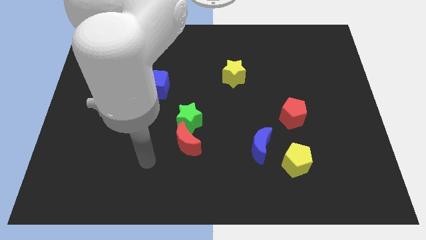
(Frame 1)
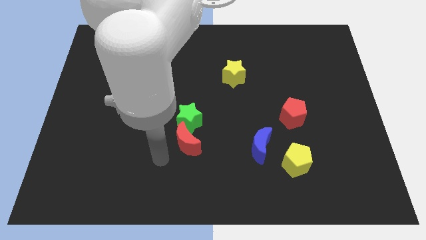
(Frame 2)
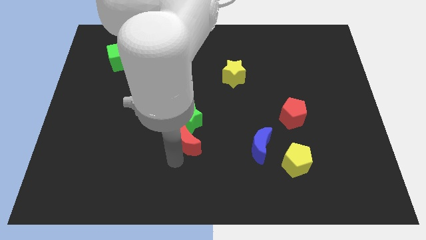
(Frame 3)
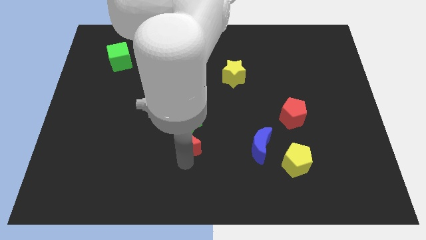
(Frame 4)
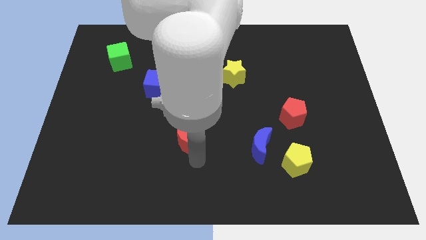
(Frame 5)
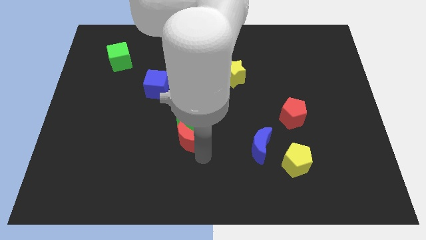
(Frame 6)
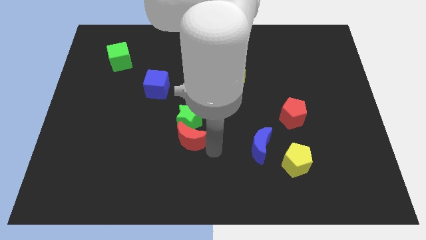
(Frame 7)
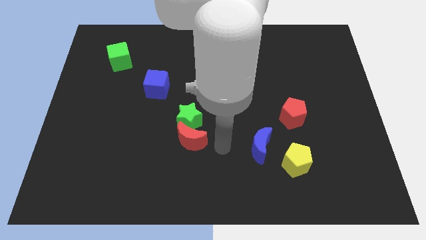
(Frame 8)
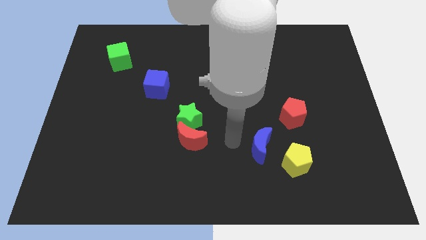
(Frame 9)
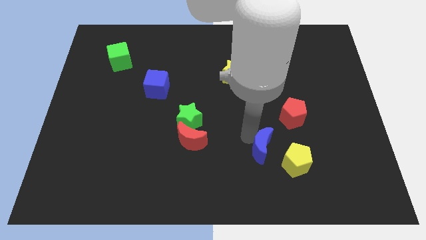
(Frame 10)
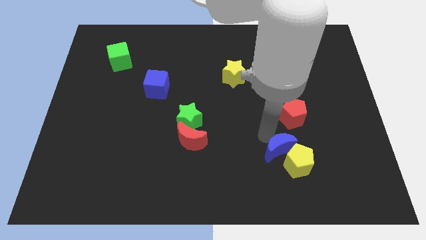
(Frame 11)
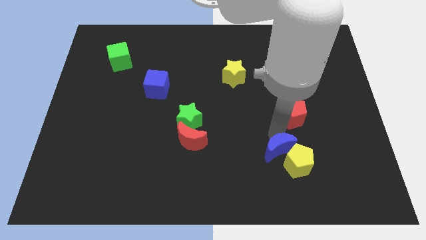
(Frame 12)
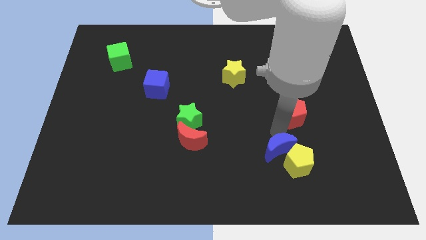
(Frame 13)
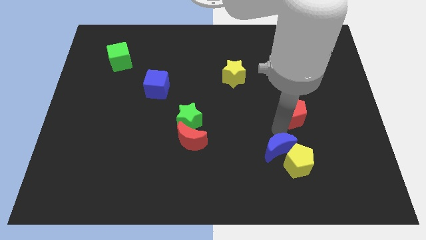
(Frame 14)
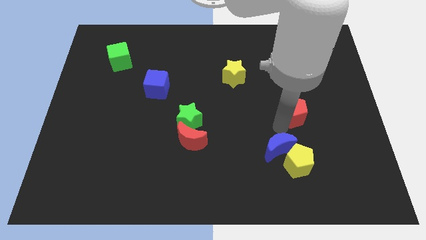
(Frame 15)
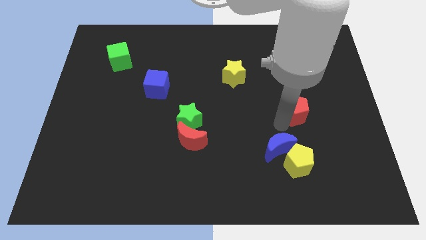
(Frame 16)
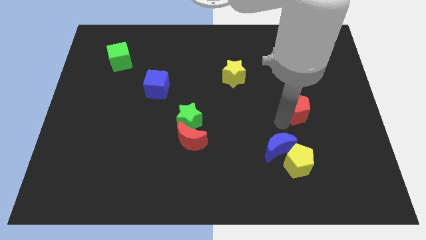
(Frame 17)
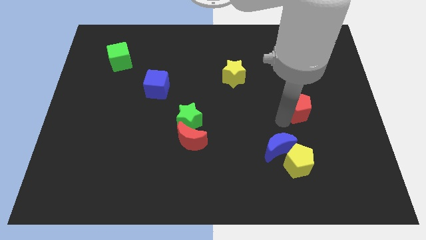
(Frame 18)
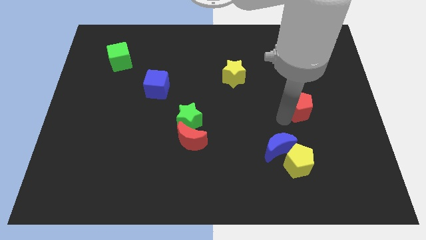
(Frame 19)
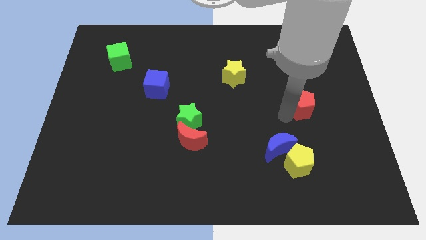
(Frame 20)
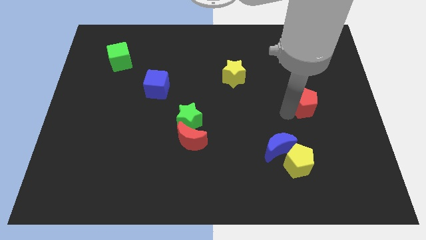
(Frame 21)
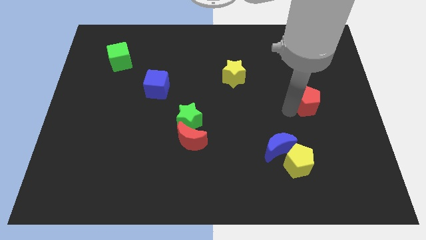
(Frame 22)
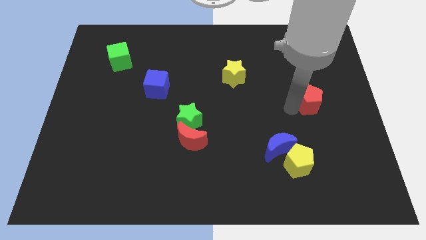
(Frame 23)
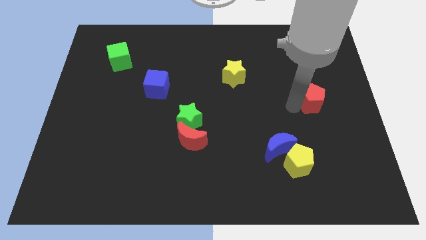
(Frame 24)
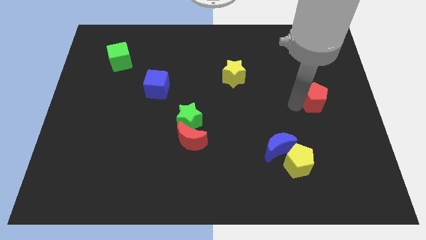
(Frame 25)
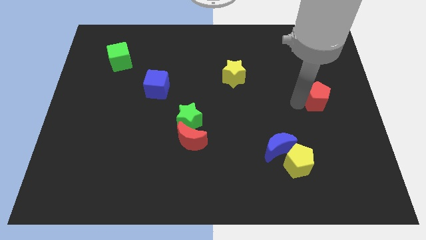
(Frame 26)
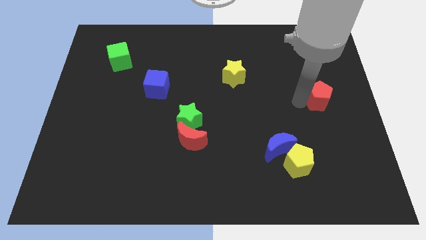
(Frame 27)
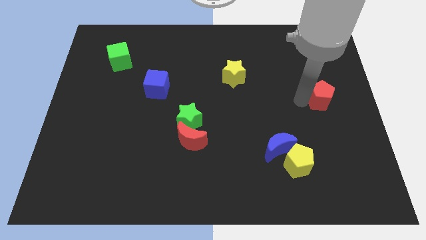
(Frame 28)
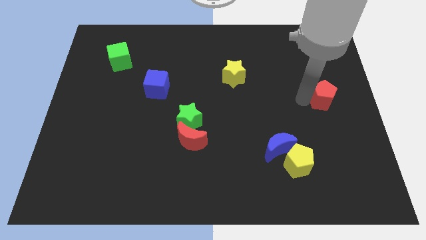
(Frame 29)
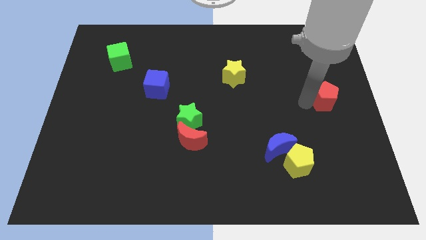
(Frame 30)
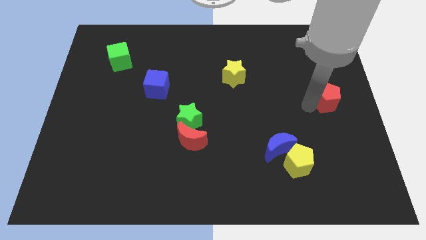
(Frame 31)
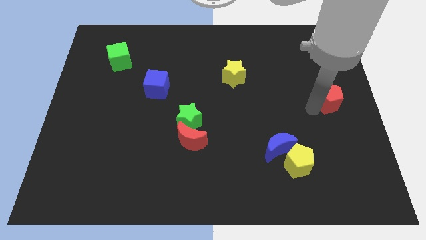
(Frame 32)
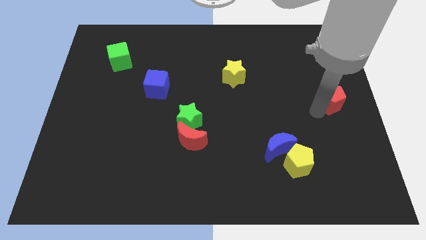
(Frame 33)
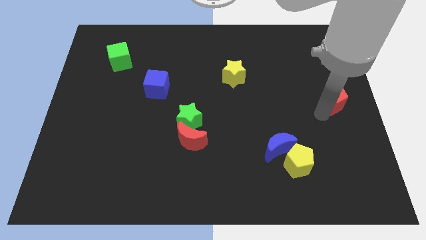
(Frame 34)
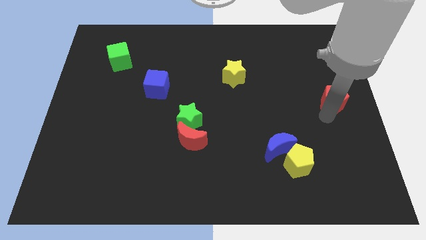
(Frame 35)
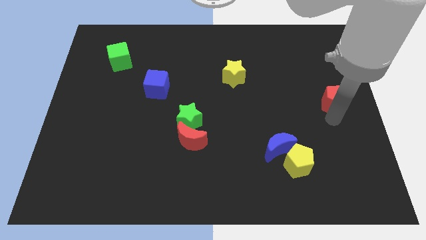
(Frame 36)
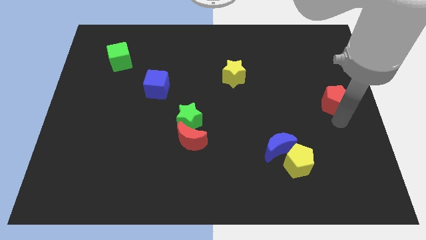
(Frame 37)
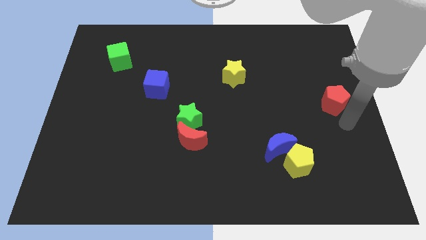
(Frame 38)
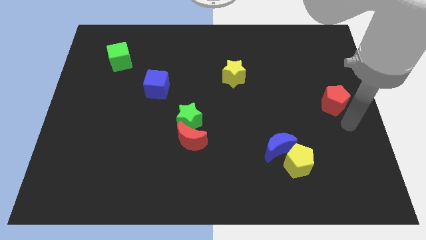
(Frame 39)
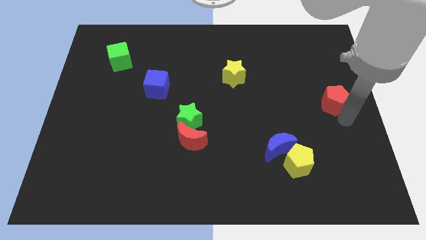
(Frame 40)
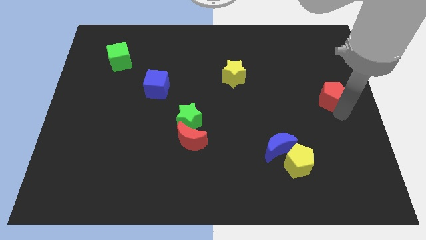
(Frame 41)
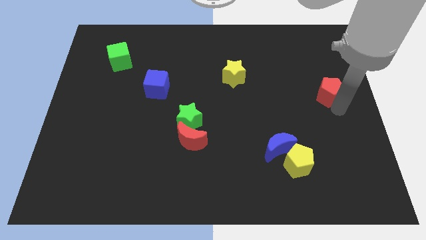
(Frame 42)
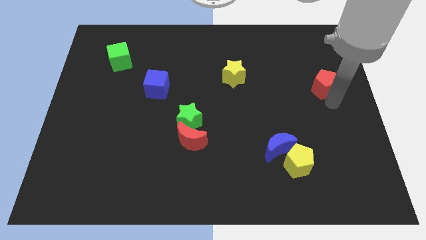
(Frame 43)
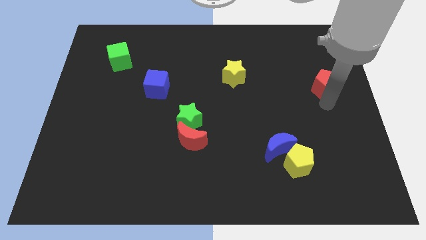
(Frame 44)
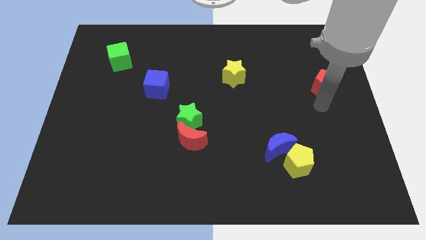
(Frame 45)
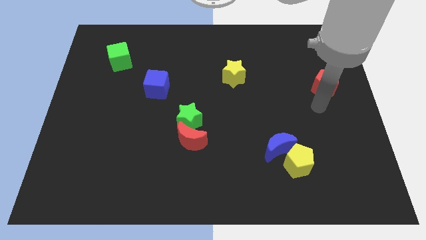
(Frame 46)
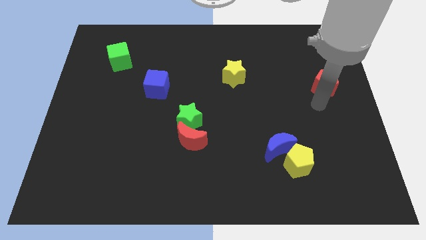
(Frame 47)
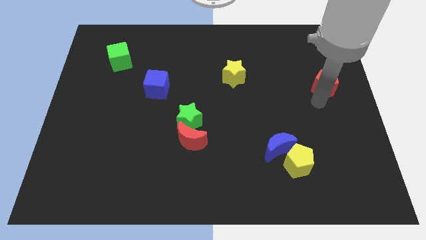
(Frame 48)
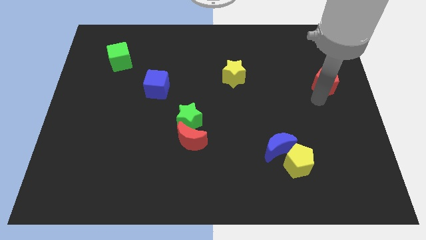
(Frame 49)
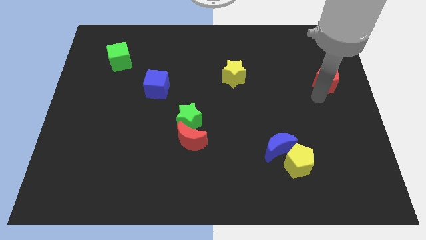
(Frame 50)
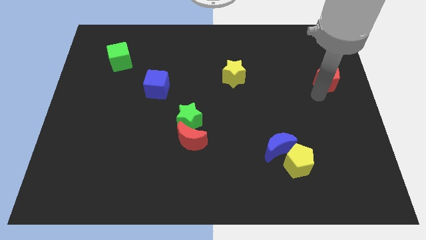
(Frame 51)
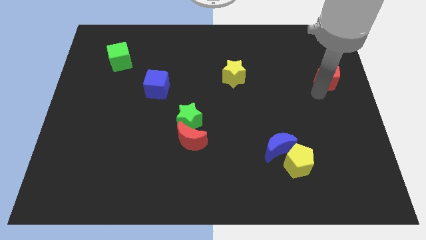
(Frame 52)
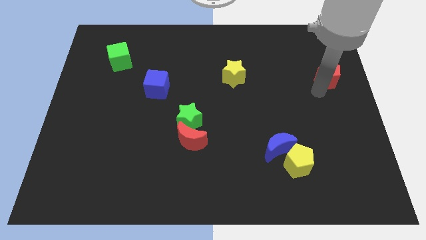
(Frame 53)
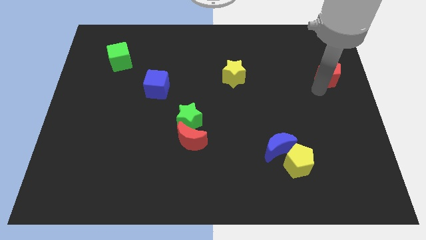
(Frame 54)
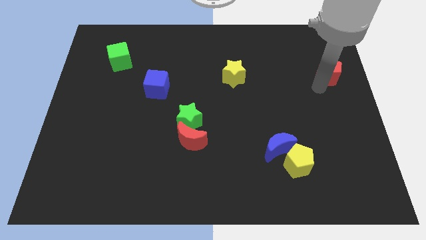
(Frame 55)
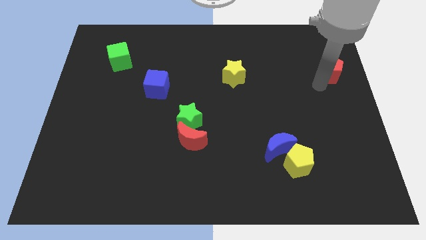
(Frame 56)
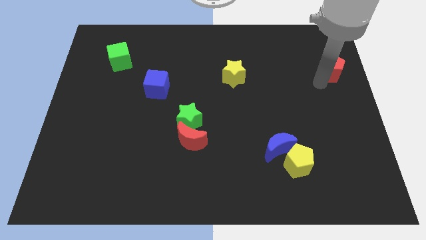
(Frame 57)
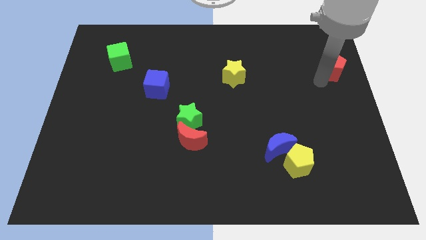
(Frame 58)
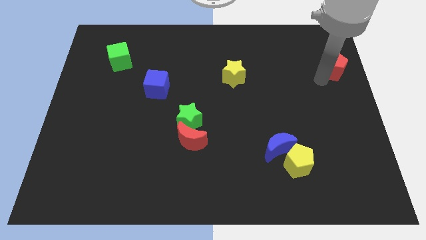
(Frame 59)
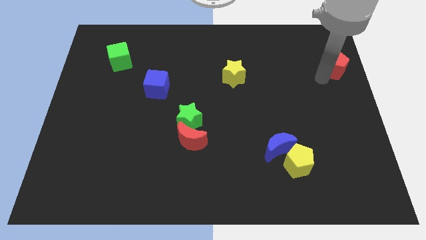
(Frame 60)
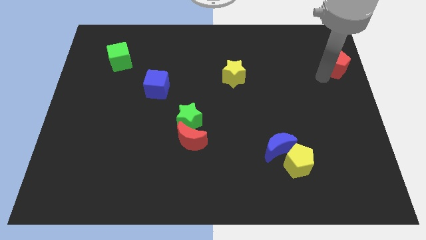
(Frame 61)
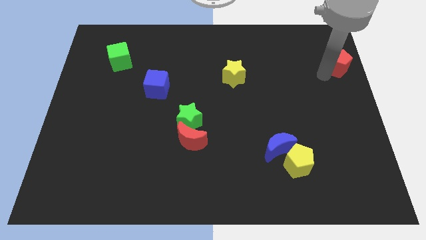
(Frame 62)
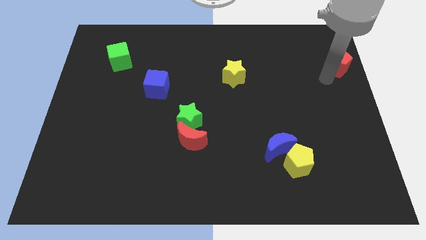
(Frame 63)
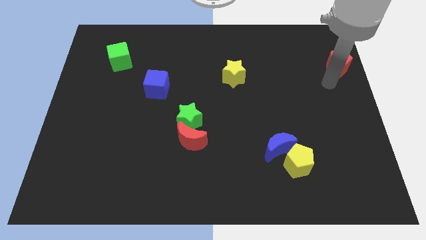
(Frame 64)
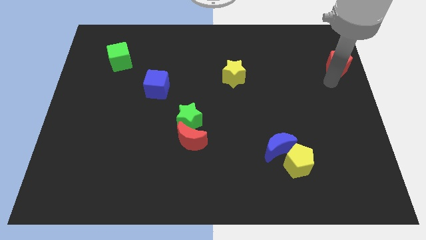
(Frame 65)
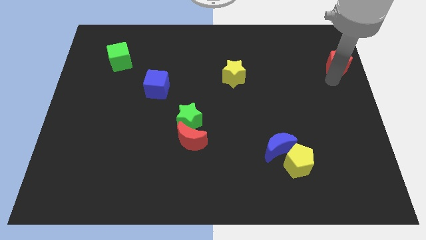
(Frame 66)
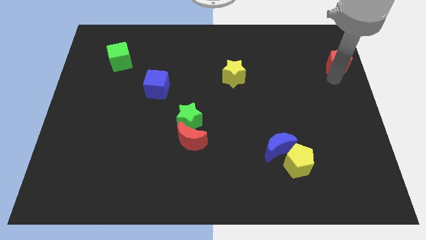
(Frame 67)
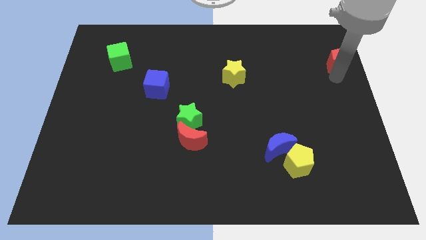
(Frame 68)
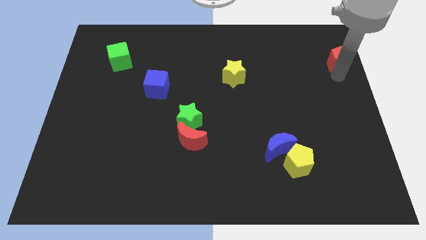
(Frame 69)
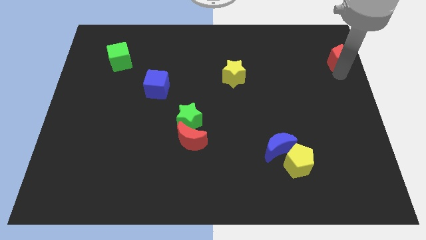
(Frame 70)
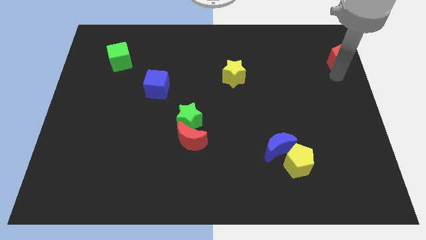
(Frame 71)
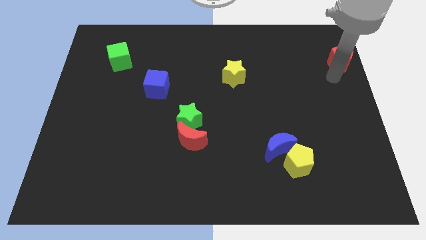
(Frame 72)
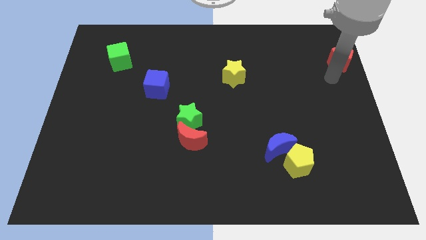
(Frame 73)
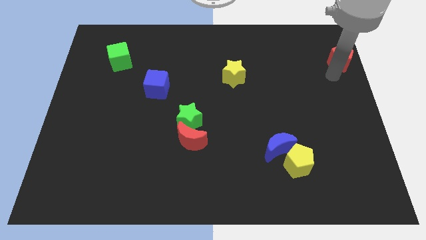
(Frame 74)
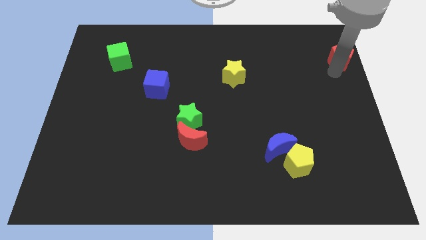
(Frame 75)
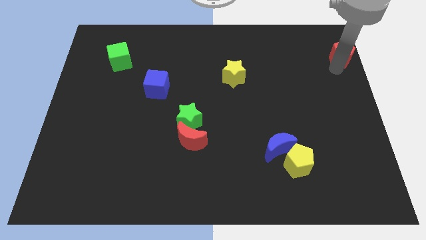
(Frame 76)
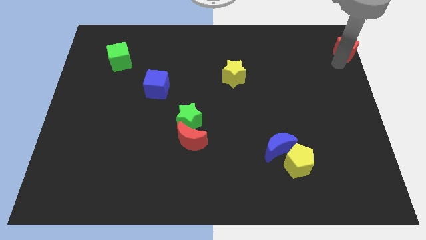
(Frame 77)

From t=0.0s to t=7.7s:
slide the red pentagon to the top right of the board
